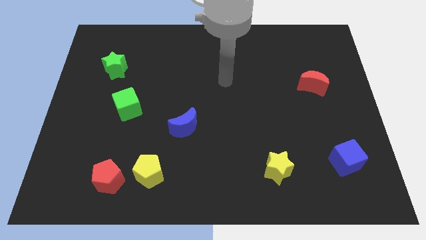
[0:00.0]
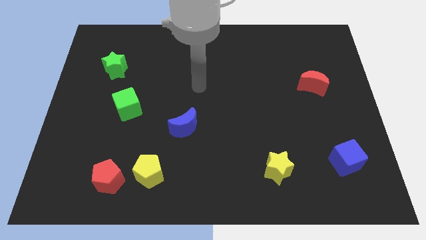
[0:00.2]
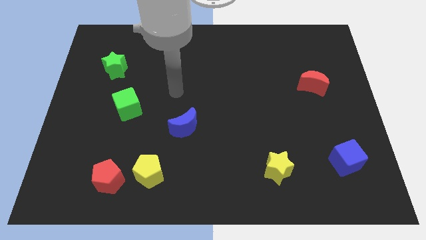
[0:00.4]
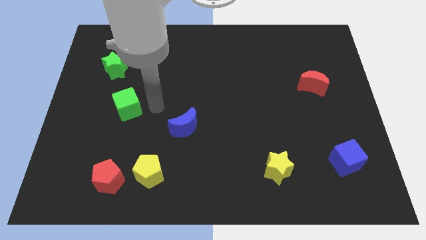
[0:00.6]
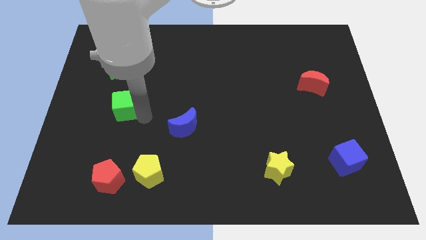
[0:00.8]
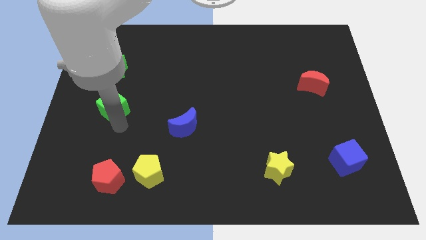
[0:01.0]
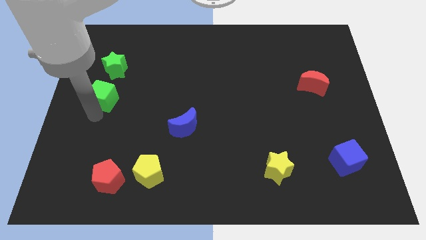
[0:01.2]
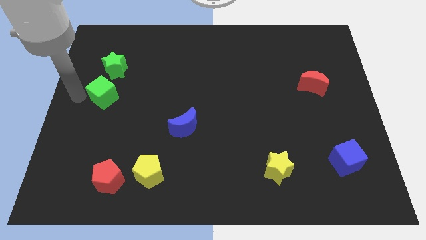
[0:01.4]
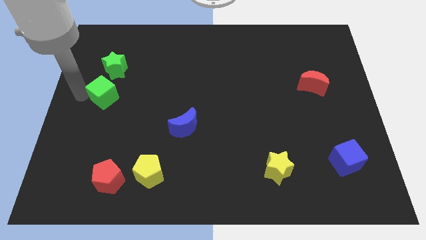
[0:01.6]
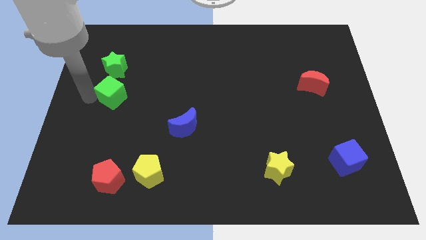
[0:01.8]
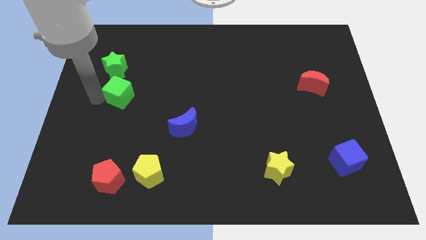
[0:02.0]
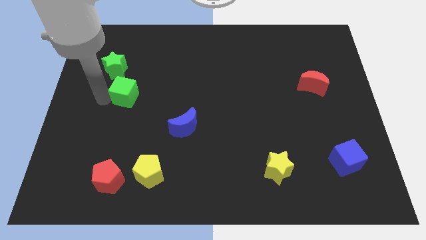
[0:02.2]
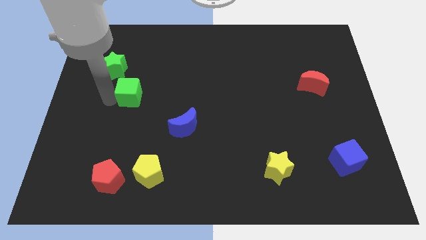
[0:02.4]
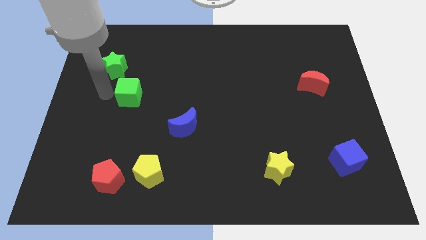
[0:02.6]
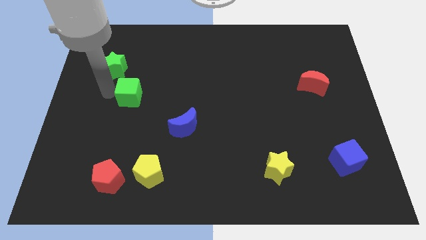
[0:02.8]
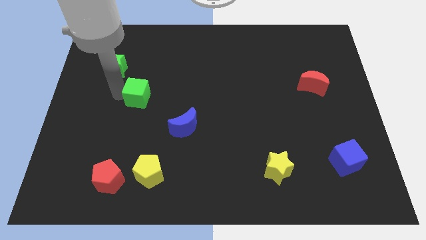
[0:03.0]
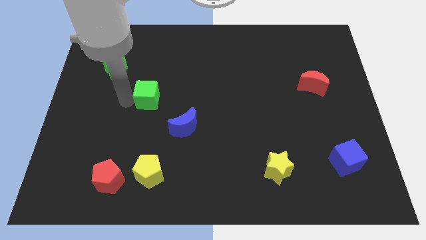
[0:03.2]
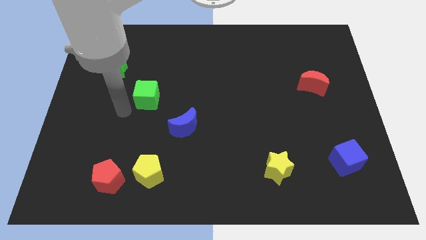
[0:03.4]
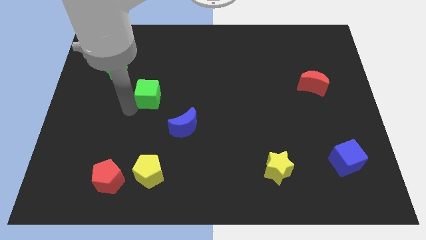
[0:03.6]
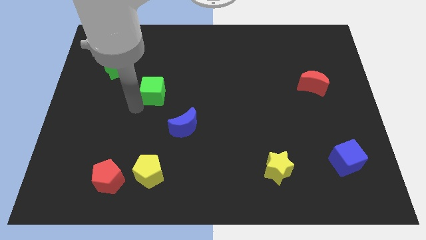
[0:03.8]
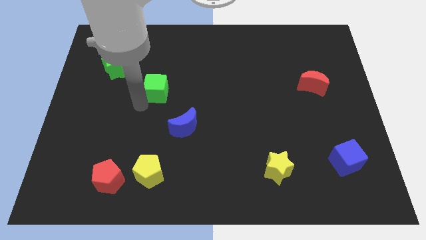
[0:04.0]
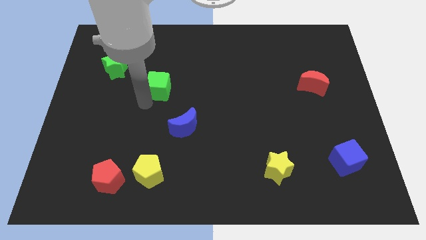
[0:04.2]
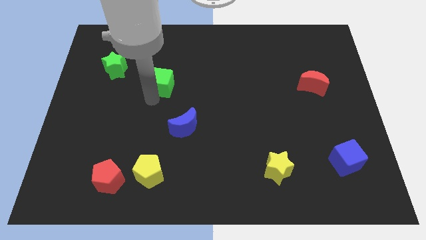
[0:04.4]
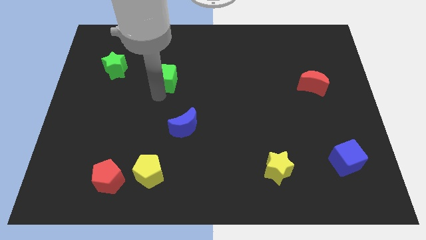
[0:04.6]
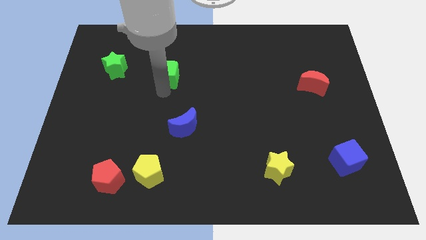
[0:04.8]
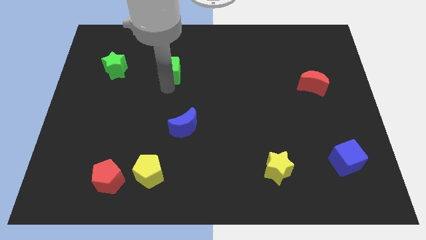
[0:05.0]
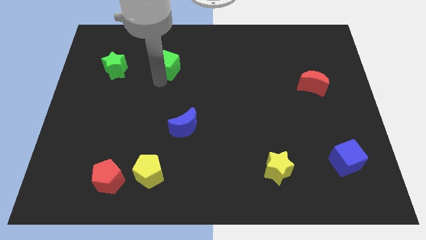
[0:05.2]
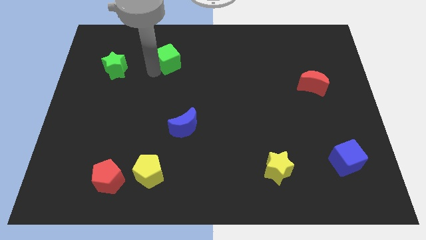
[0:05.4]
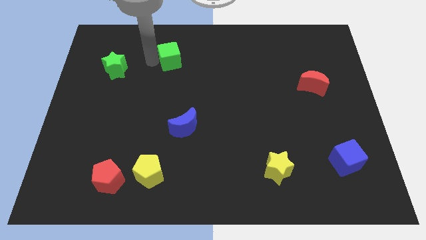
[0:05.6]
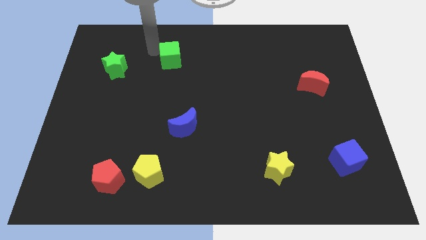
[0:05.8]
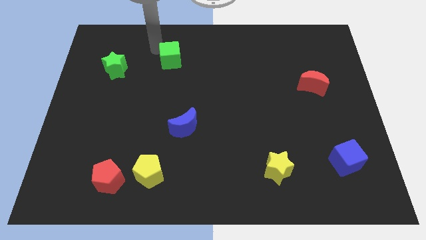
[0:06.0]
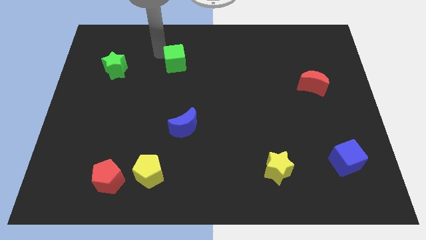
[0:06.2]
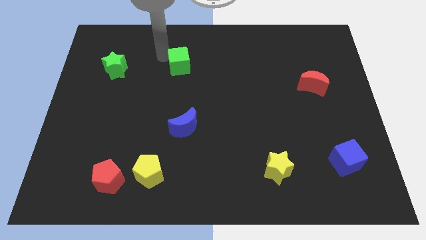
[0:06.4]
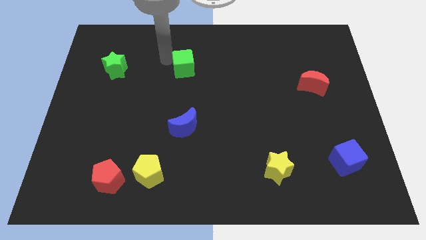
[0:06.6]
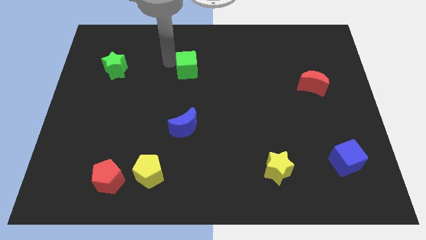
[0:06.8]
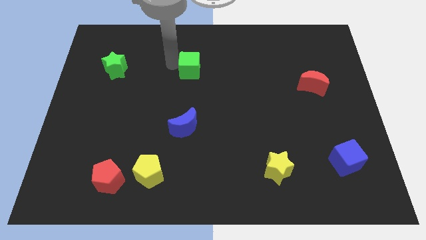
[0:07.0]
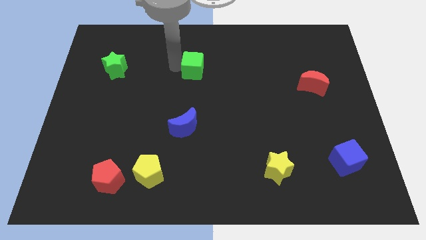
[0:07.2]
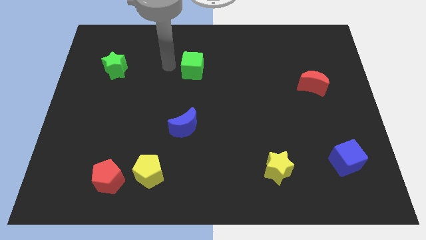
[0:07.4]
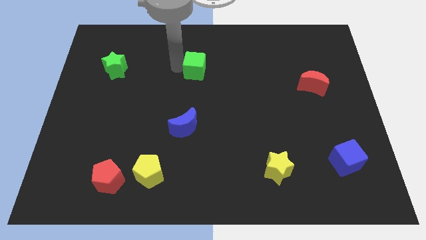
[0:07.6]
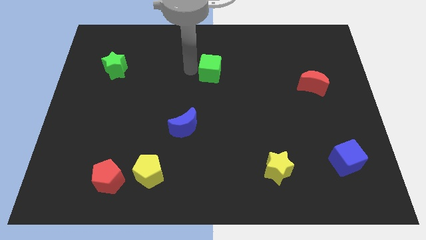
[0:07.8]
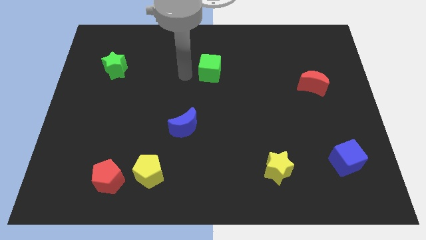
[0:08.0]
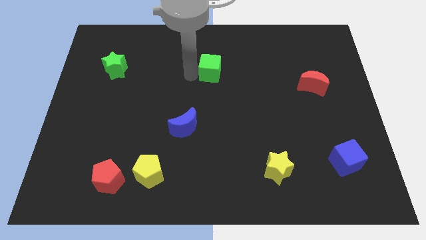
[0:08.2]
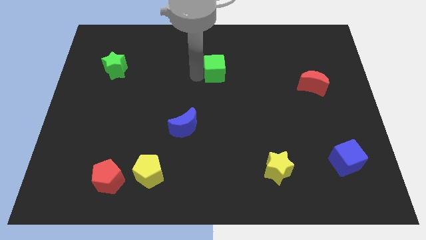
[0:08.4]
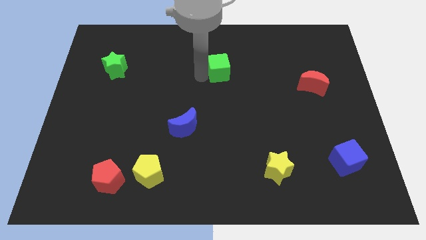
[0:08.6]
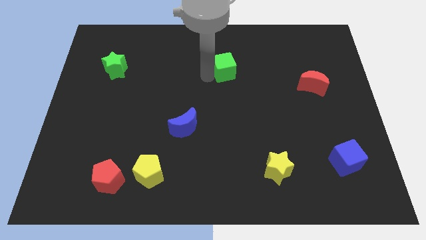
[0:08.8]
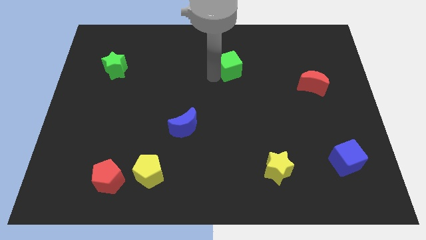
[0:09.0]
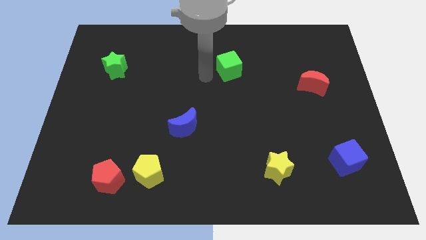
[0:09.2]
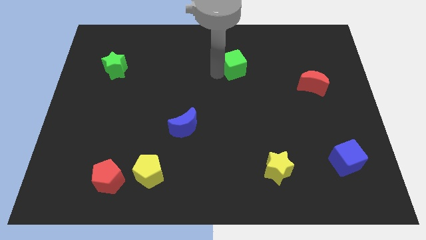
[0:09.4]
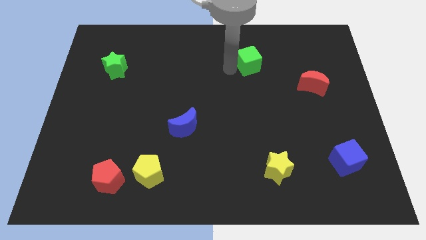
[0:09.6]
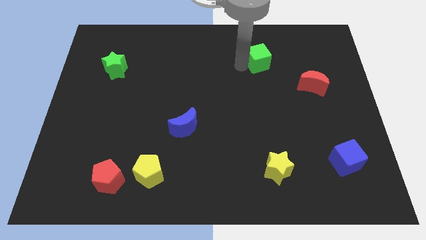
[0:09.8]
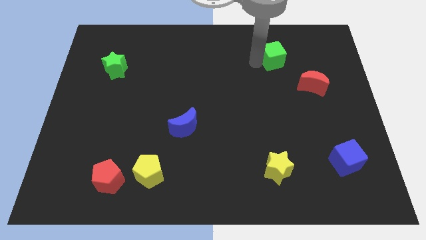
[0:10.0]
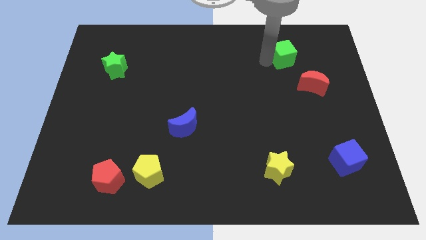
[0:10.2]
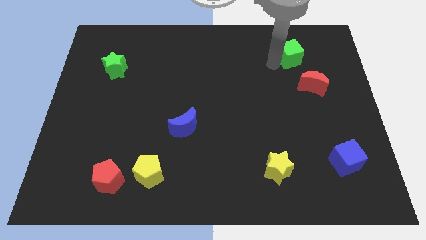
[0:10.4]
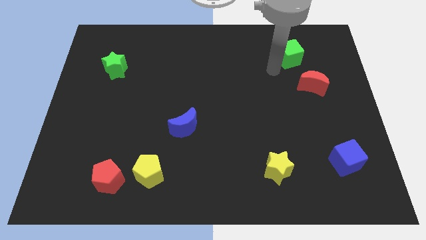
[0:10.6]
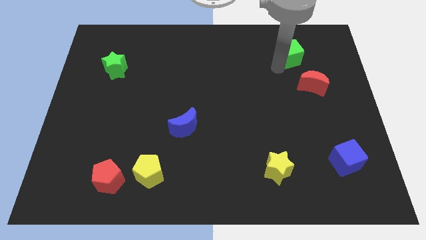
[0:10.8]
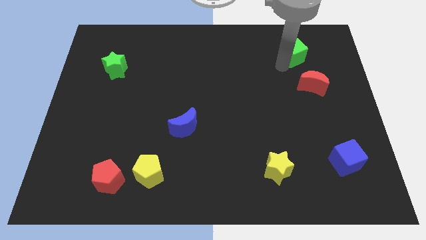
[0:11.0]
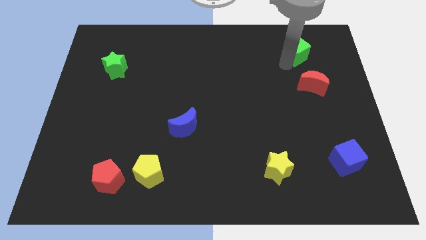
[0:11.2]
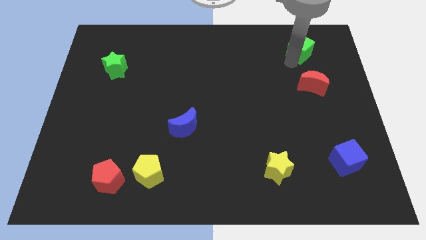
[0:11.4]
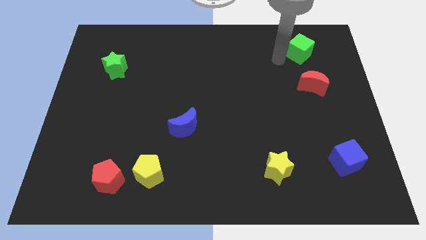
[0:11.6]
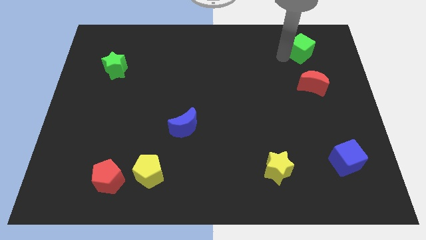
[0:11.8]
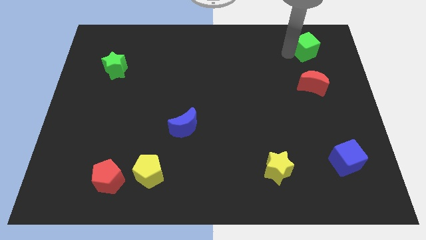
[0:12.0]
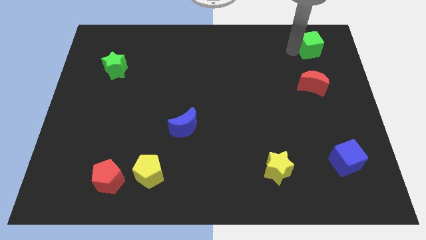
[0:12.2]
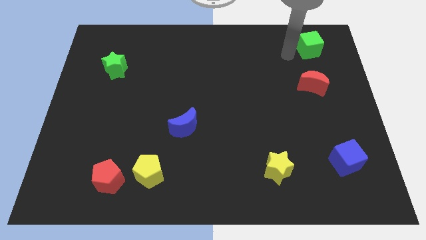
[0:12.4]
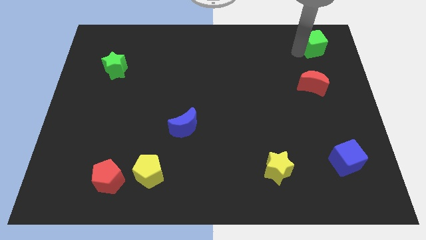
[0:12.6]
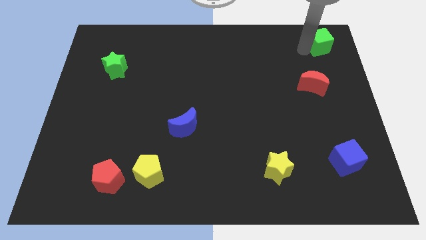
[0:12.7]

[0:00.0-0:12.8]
slide the green cube to the top right of the board

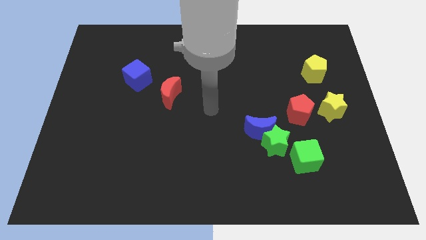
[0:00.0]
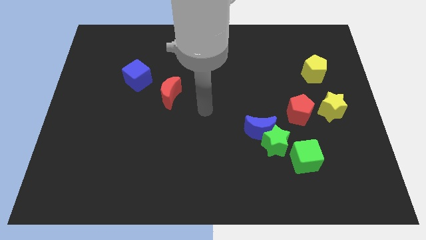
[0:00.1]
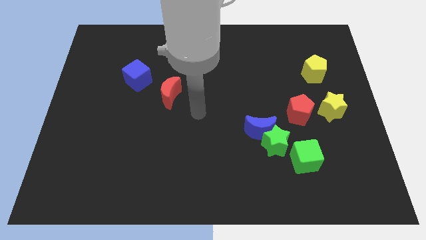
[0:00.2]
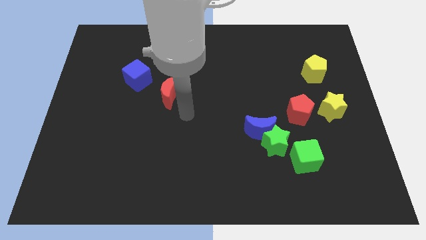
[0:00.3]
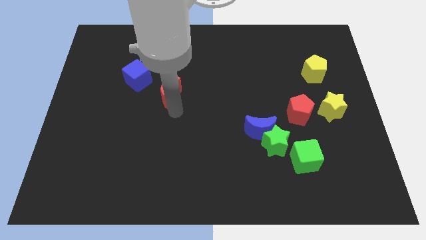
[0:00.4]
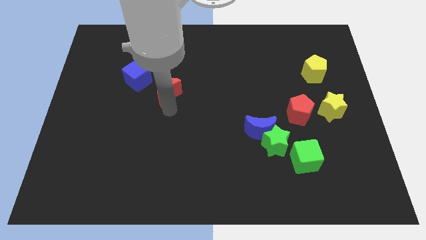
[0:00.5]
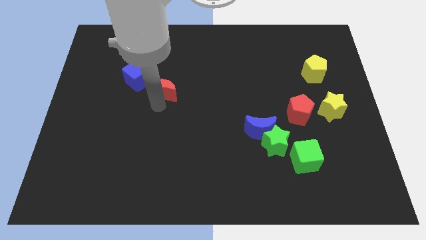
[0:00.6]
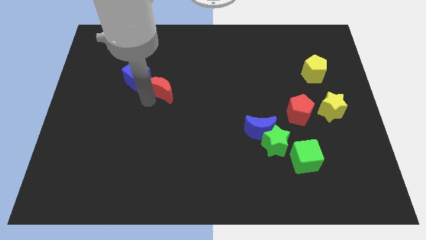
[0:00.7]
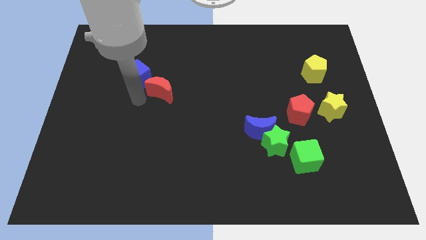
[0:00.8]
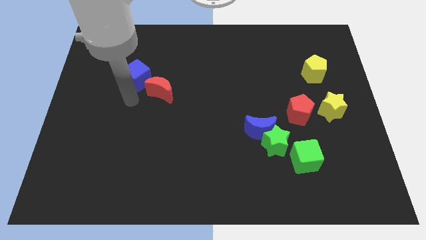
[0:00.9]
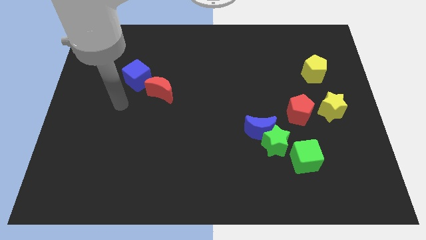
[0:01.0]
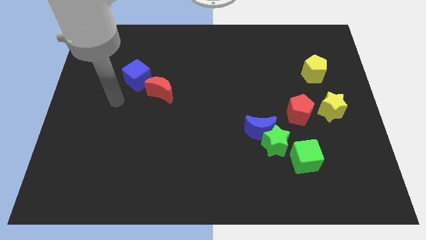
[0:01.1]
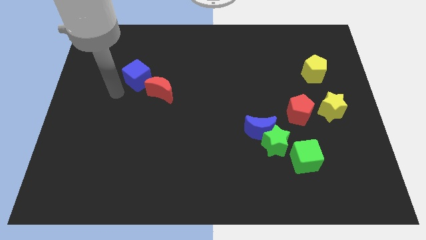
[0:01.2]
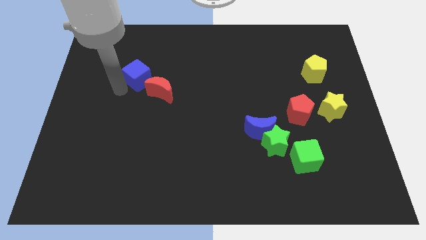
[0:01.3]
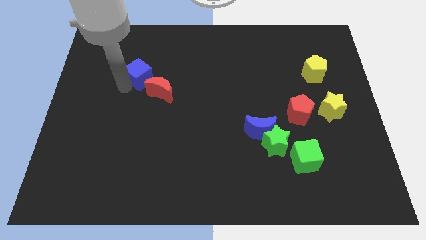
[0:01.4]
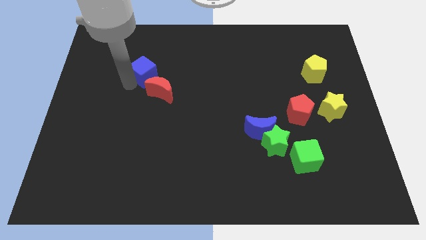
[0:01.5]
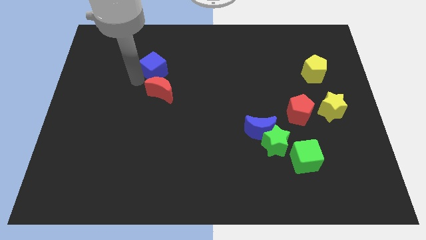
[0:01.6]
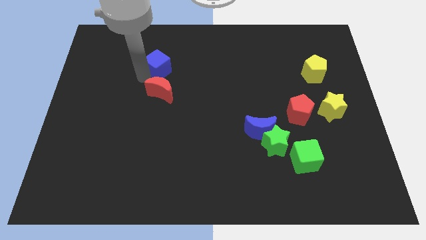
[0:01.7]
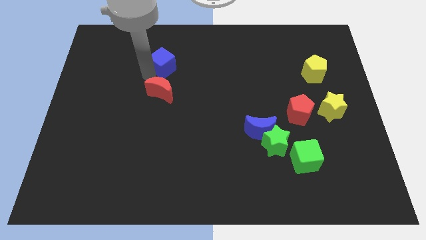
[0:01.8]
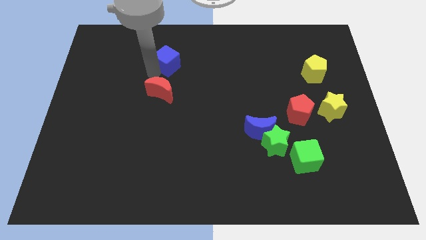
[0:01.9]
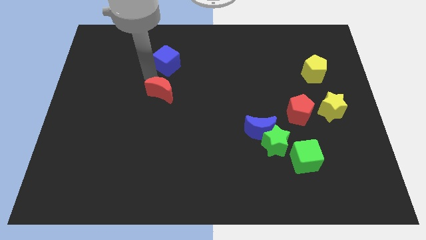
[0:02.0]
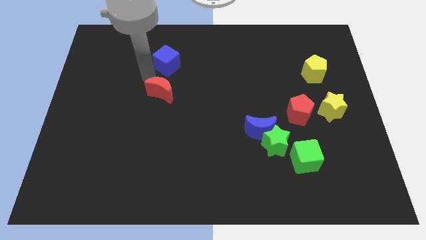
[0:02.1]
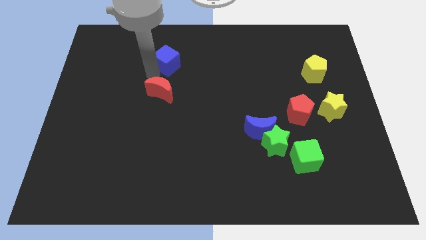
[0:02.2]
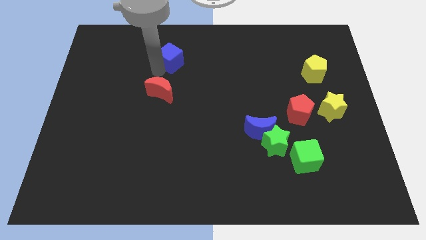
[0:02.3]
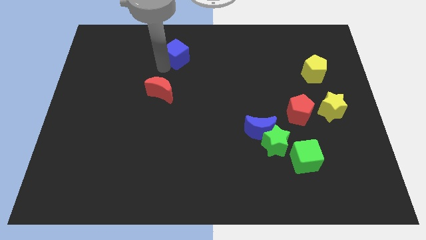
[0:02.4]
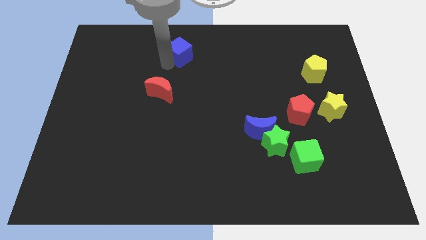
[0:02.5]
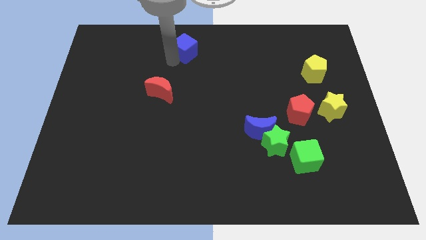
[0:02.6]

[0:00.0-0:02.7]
move the blue cube to the towards your base
